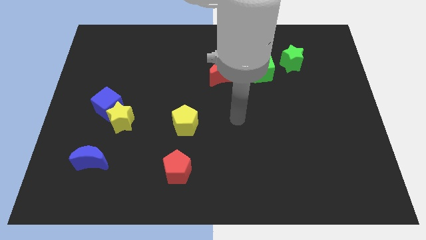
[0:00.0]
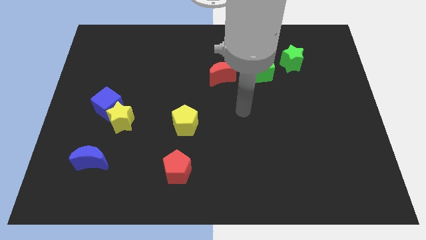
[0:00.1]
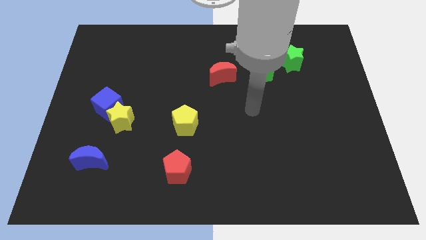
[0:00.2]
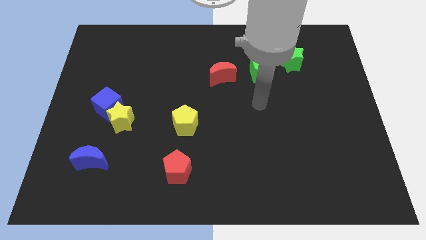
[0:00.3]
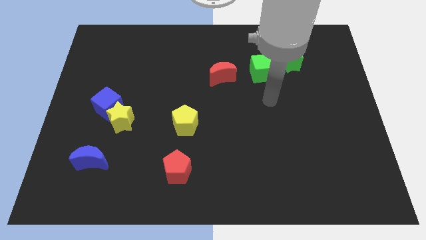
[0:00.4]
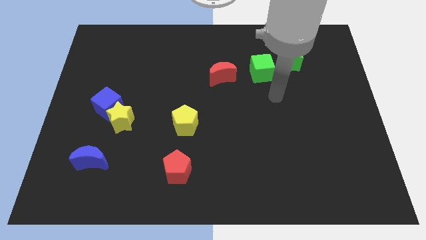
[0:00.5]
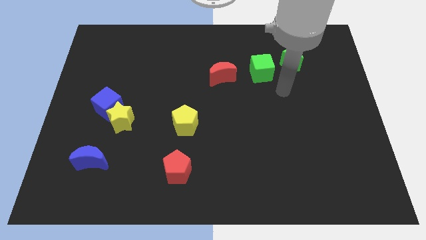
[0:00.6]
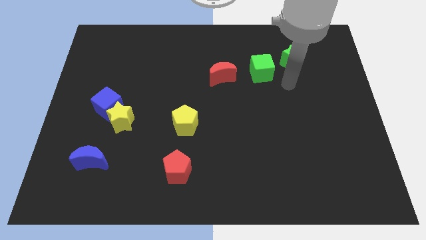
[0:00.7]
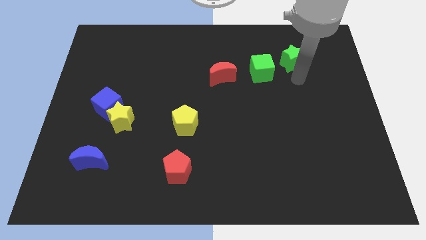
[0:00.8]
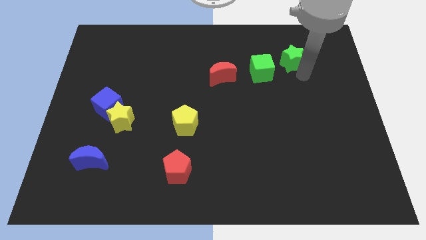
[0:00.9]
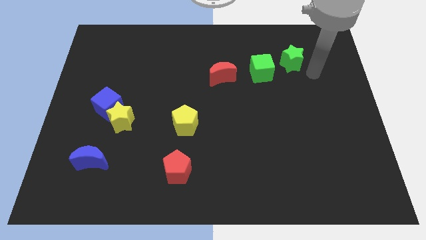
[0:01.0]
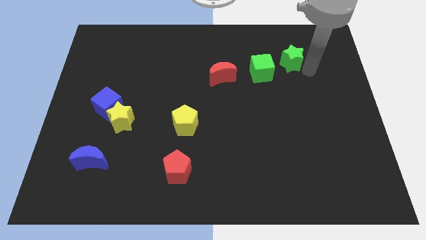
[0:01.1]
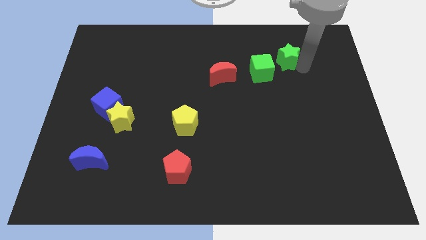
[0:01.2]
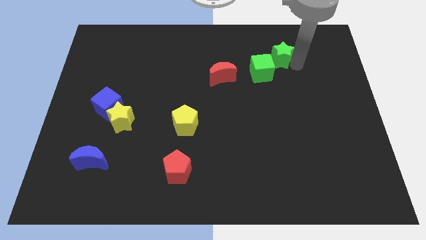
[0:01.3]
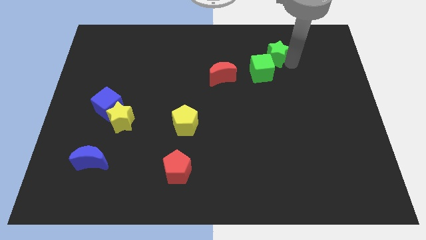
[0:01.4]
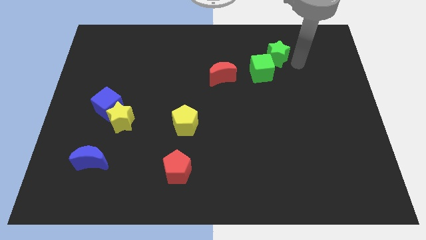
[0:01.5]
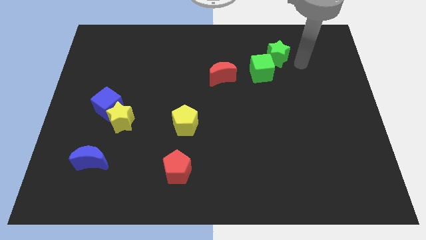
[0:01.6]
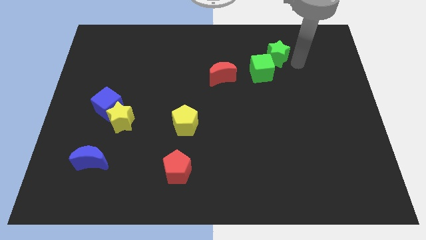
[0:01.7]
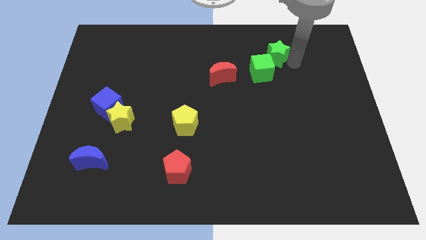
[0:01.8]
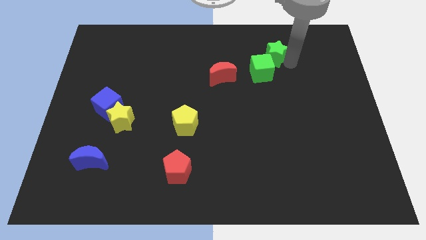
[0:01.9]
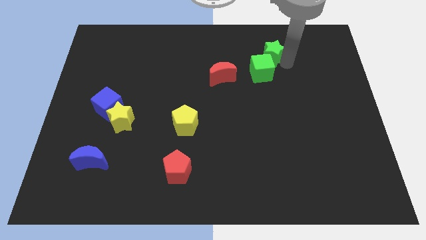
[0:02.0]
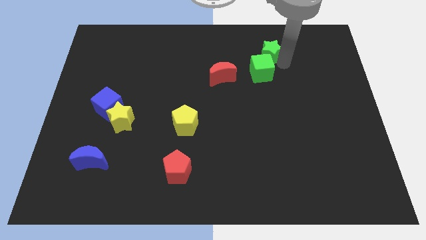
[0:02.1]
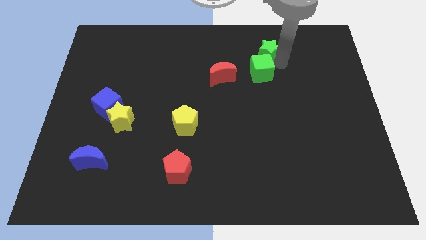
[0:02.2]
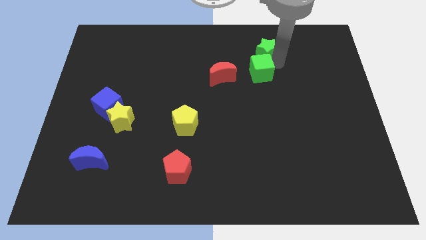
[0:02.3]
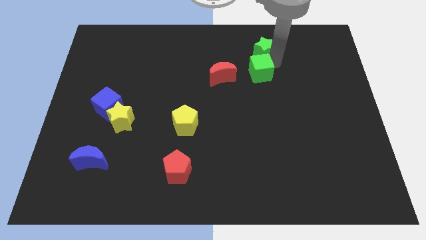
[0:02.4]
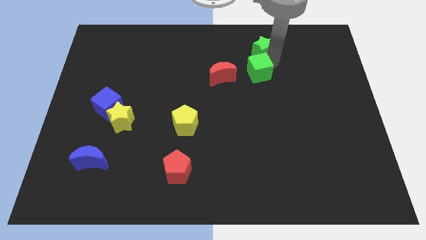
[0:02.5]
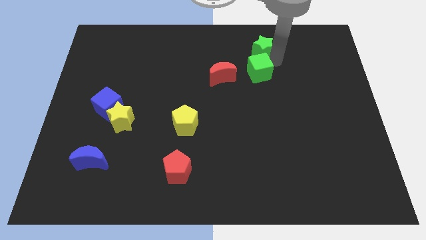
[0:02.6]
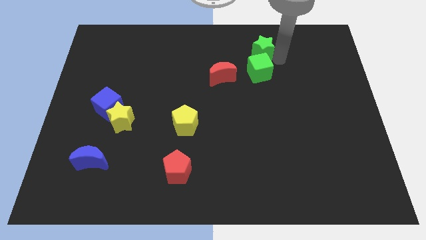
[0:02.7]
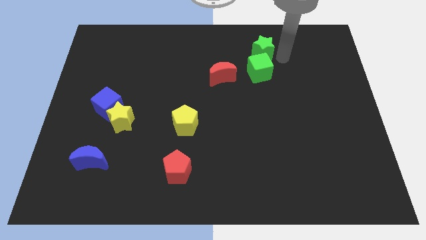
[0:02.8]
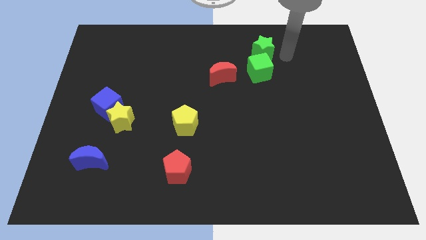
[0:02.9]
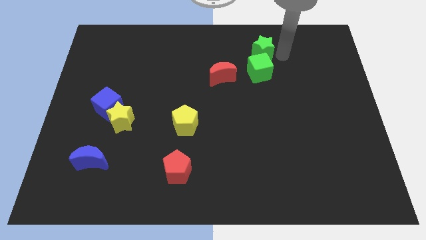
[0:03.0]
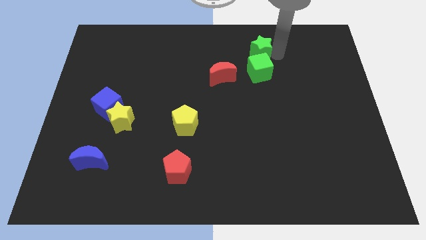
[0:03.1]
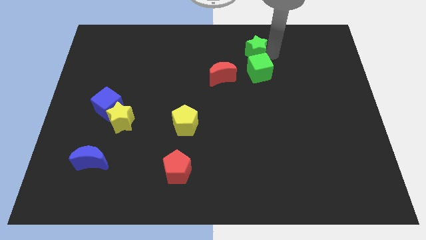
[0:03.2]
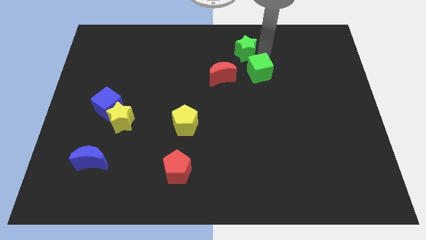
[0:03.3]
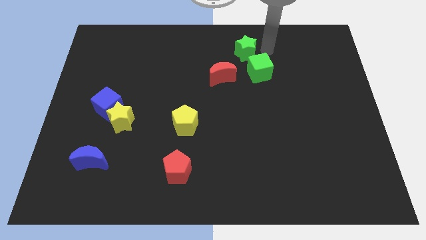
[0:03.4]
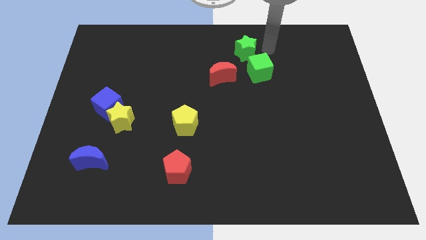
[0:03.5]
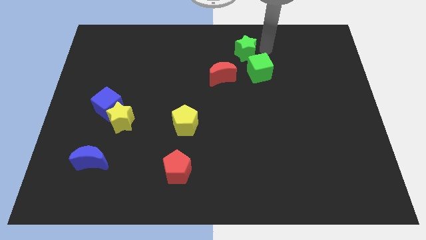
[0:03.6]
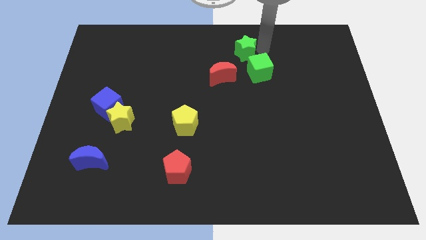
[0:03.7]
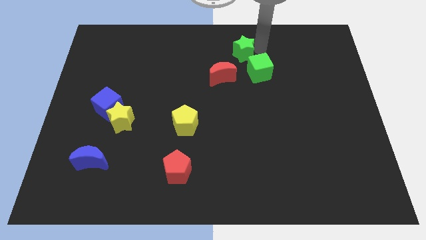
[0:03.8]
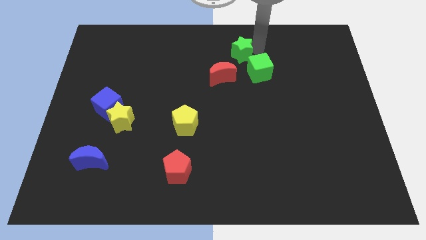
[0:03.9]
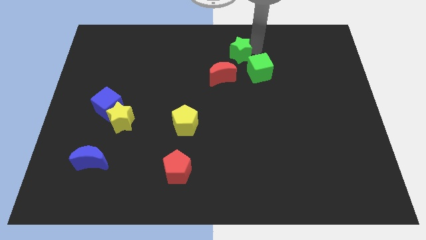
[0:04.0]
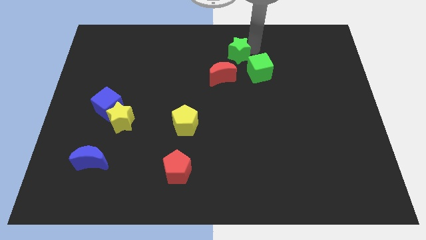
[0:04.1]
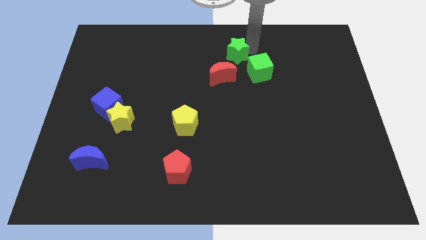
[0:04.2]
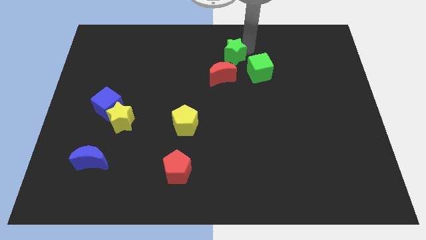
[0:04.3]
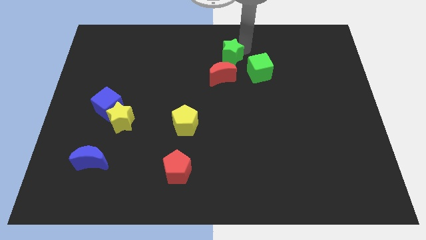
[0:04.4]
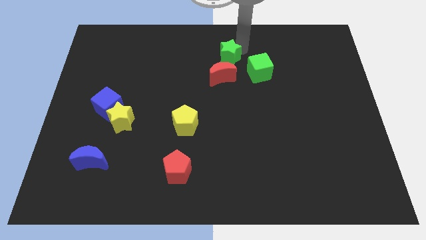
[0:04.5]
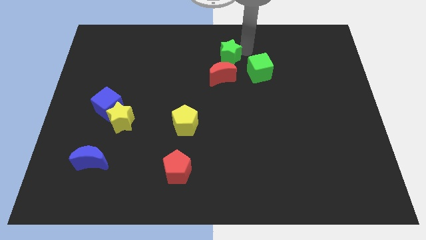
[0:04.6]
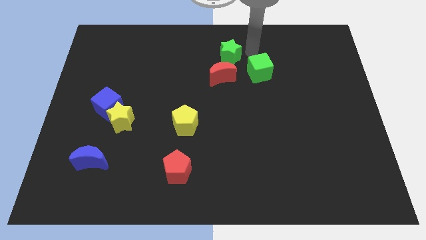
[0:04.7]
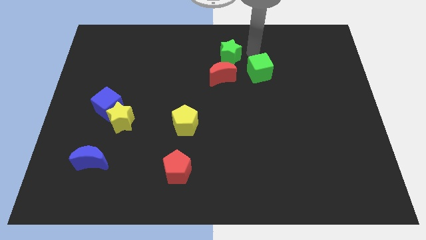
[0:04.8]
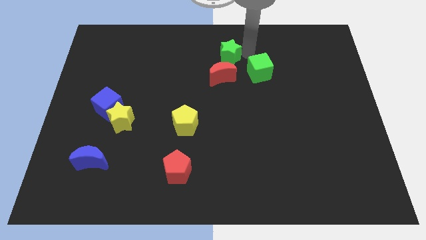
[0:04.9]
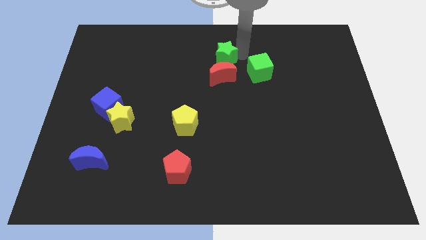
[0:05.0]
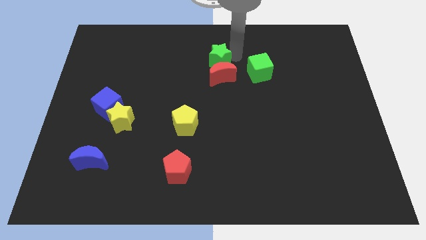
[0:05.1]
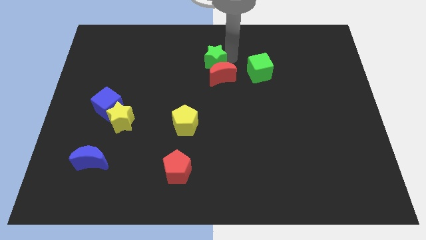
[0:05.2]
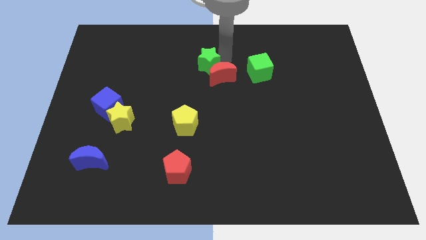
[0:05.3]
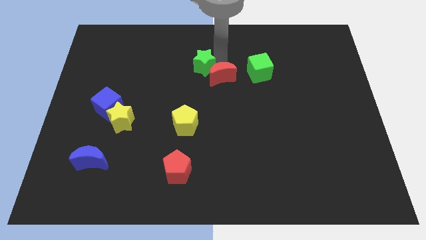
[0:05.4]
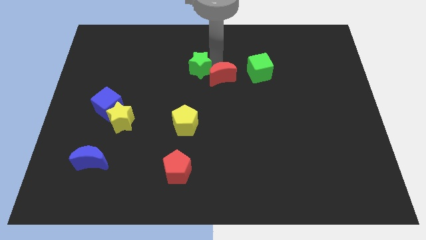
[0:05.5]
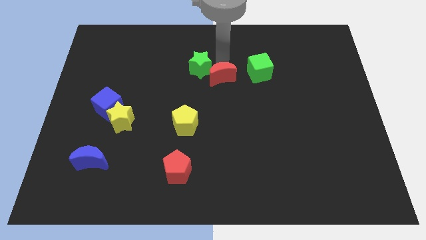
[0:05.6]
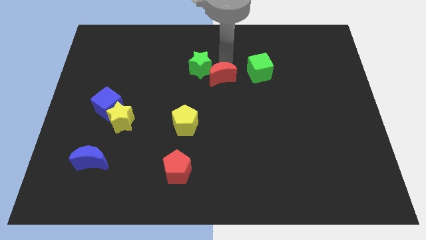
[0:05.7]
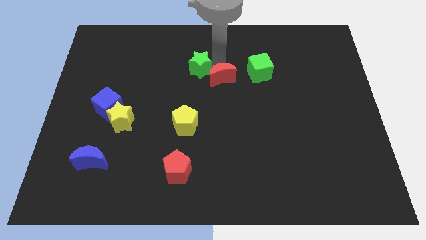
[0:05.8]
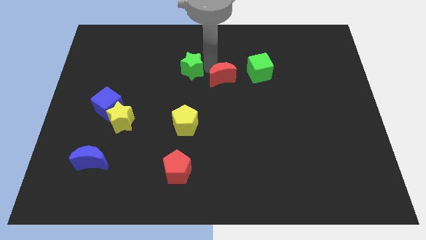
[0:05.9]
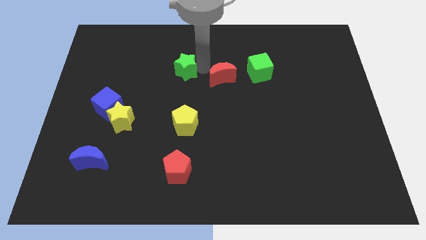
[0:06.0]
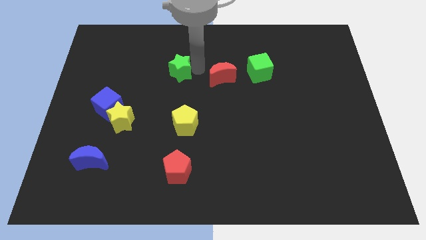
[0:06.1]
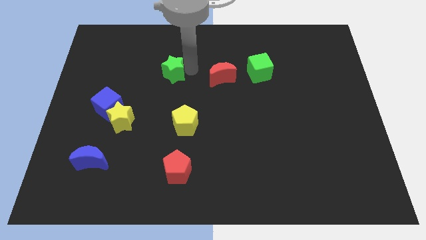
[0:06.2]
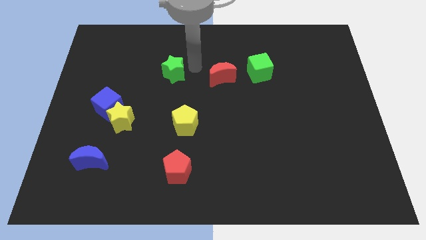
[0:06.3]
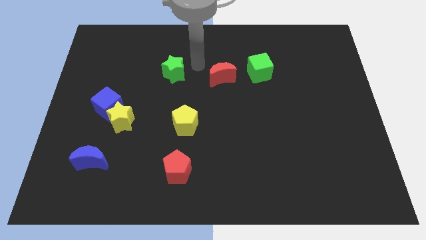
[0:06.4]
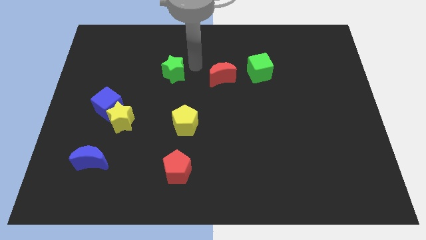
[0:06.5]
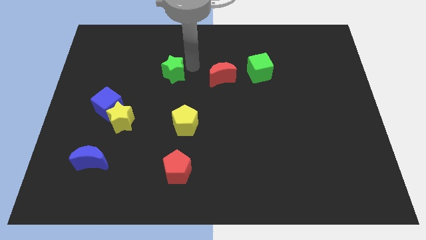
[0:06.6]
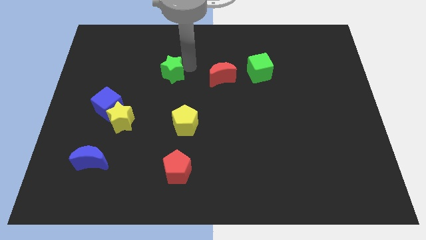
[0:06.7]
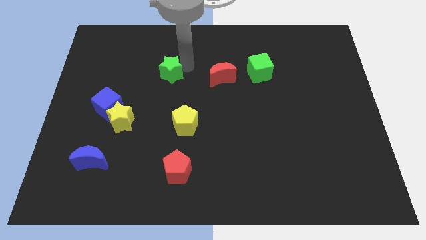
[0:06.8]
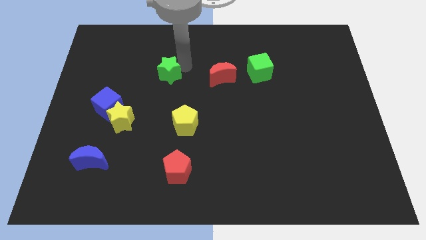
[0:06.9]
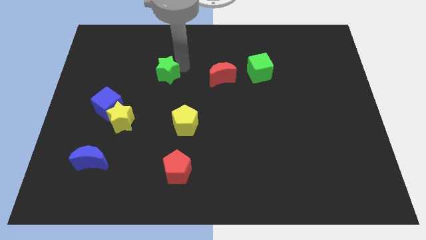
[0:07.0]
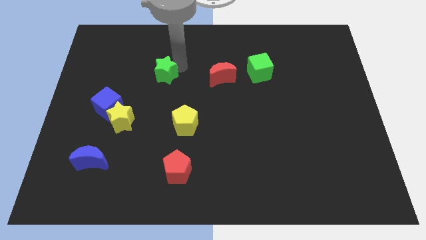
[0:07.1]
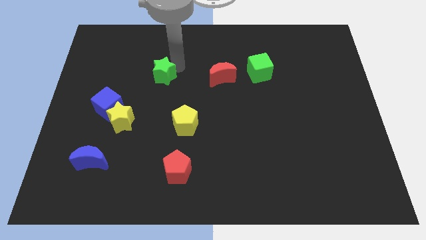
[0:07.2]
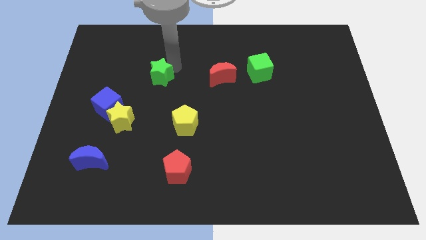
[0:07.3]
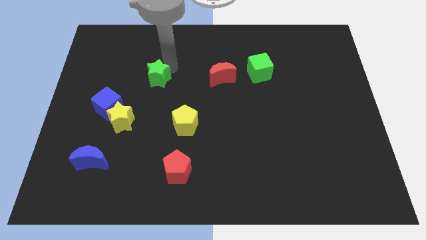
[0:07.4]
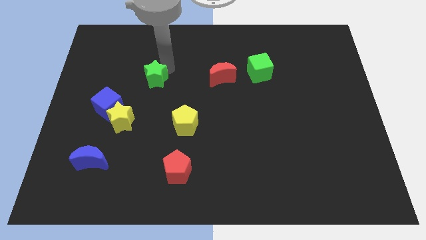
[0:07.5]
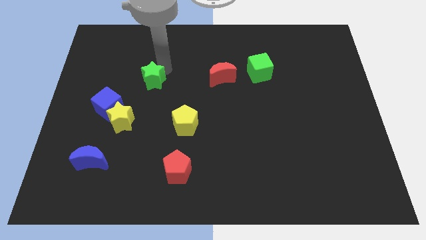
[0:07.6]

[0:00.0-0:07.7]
slide the green star to the top right side of the blue cube
